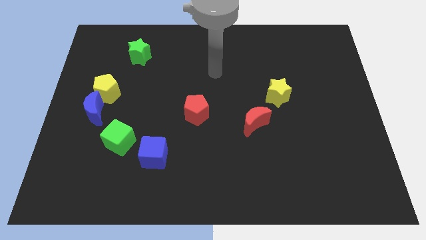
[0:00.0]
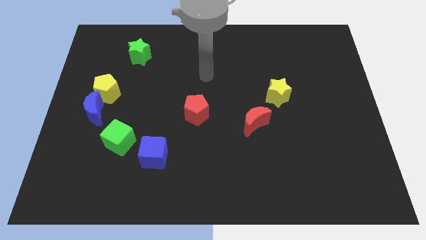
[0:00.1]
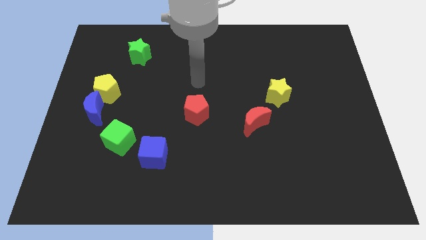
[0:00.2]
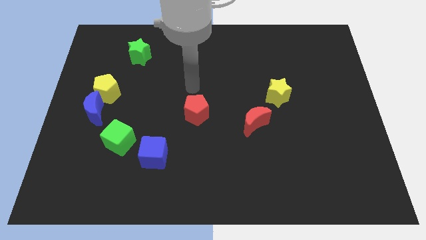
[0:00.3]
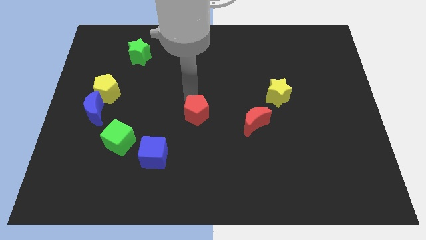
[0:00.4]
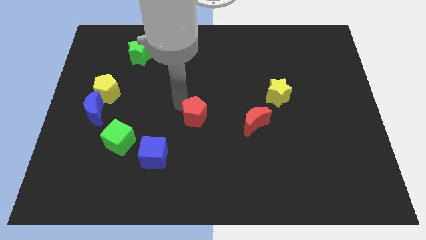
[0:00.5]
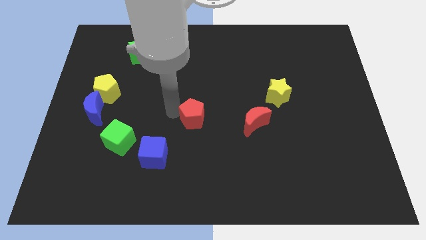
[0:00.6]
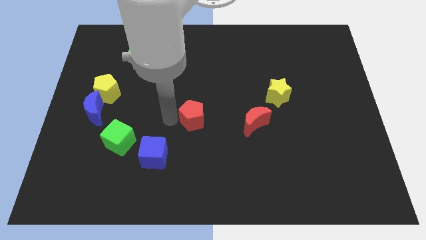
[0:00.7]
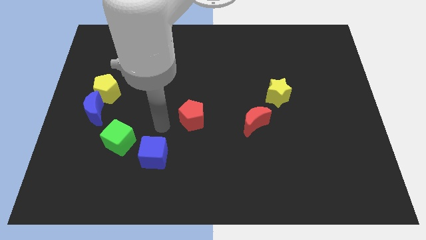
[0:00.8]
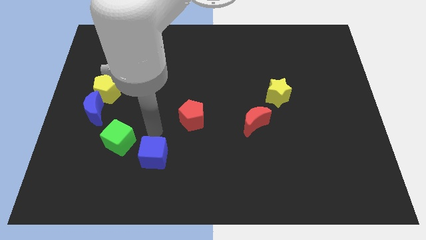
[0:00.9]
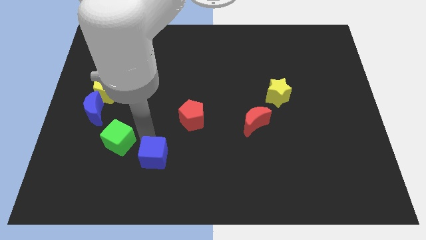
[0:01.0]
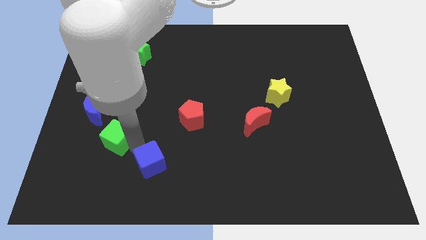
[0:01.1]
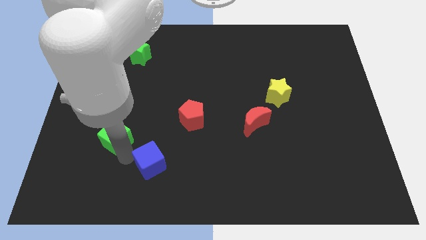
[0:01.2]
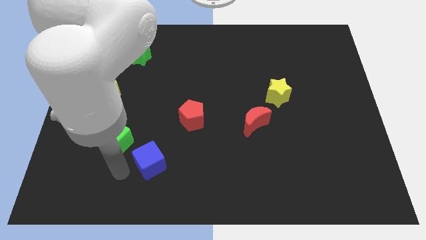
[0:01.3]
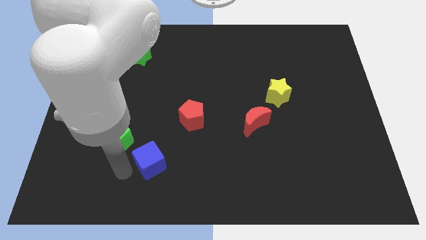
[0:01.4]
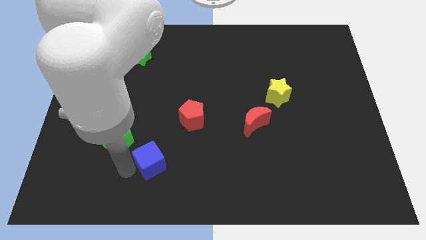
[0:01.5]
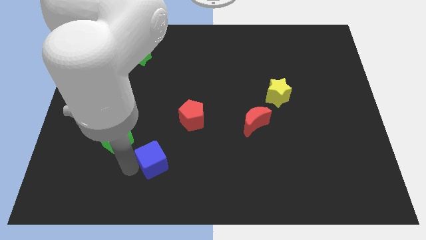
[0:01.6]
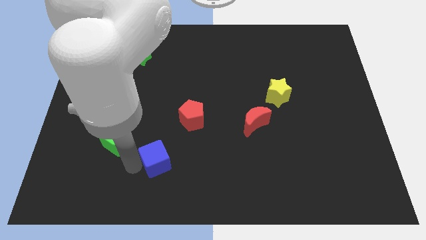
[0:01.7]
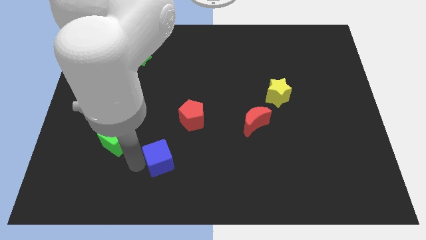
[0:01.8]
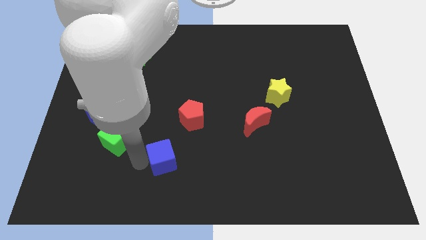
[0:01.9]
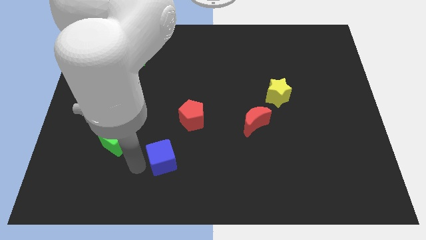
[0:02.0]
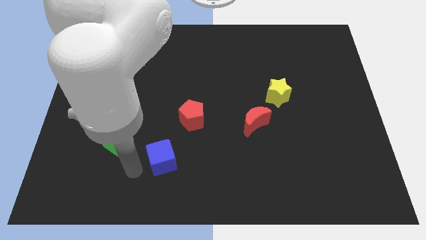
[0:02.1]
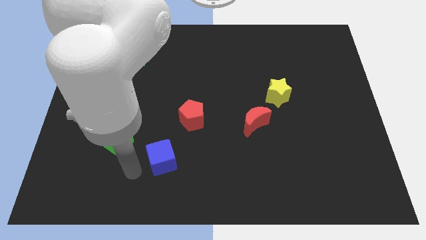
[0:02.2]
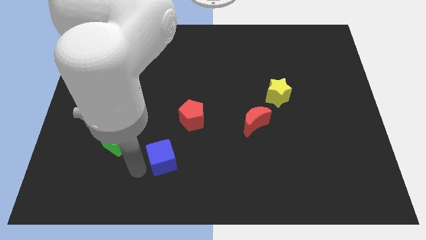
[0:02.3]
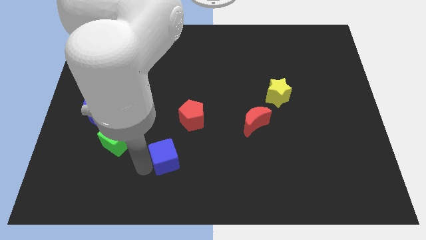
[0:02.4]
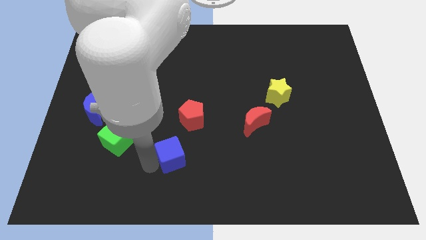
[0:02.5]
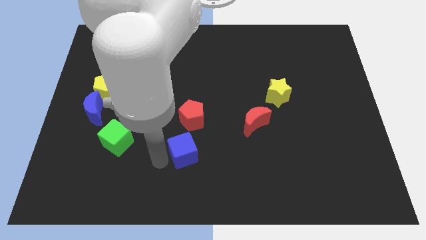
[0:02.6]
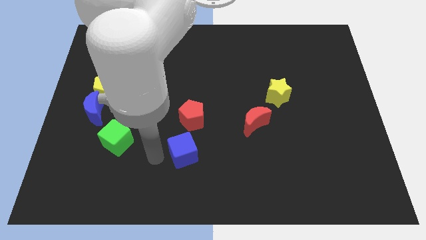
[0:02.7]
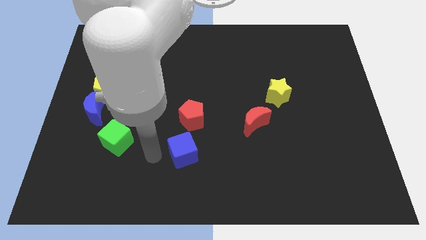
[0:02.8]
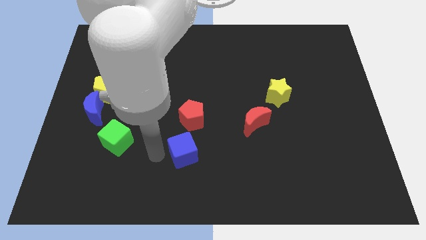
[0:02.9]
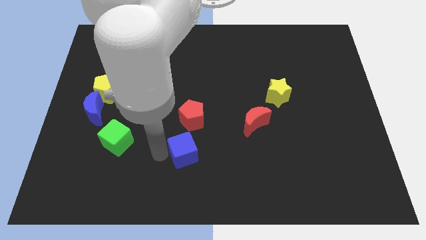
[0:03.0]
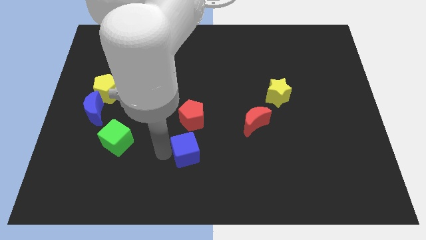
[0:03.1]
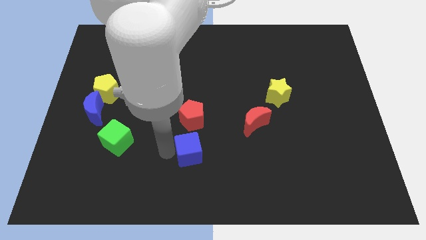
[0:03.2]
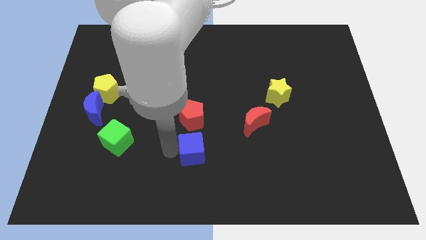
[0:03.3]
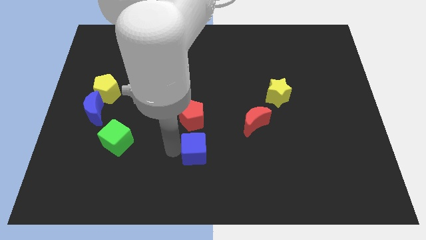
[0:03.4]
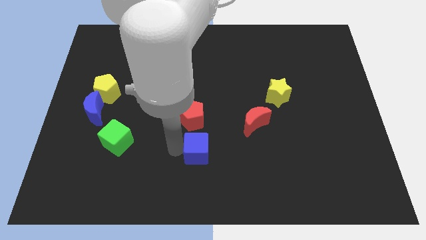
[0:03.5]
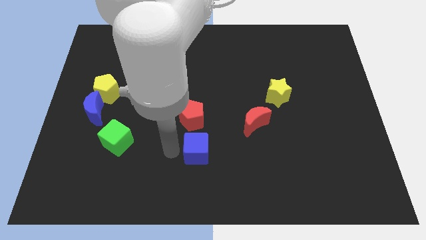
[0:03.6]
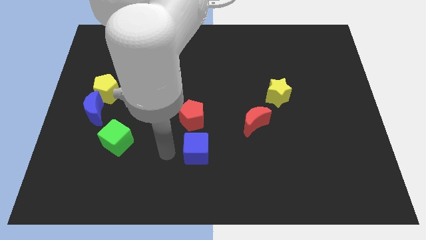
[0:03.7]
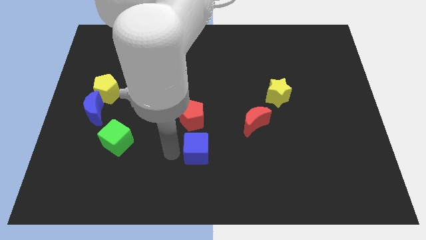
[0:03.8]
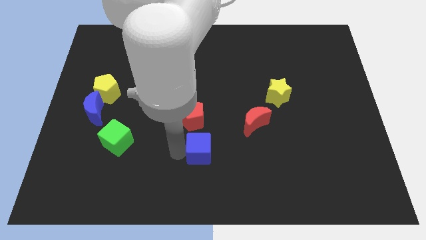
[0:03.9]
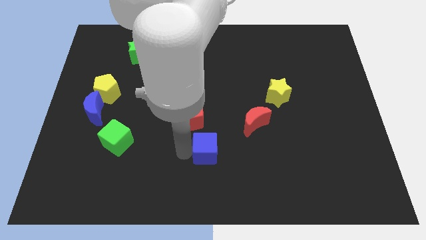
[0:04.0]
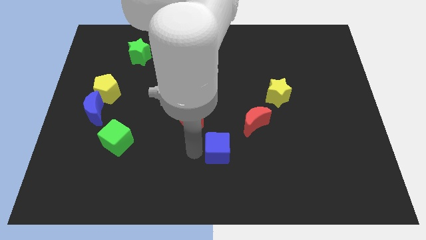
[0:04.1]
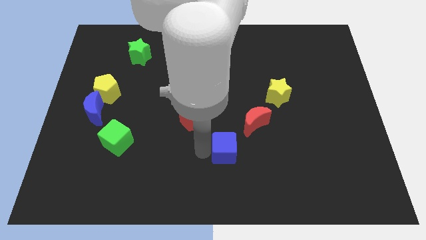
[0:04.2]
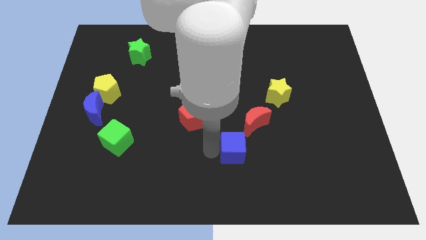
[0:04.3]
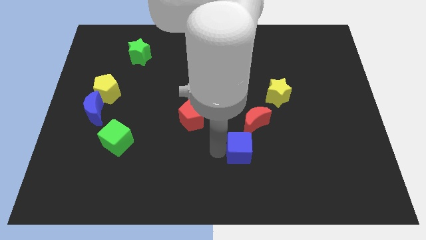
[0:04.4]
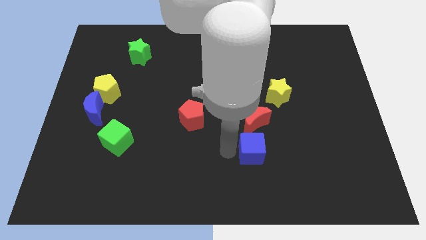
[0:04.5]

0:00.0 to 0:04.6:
move the blue cube right

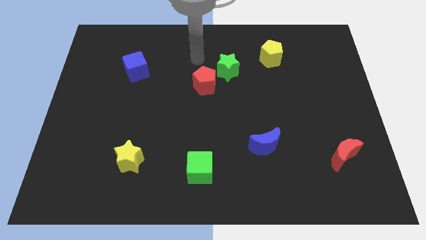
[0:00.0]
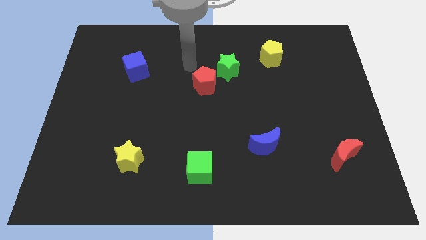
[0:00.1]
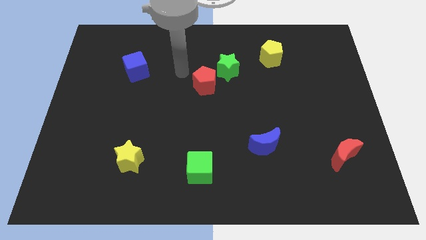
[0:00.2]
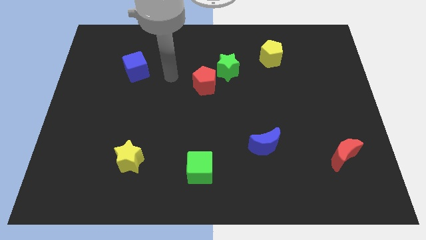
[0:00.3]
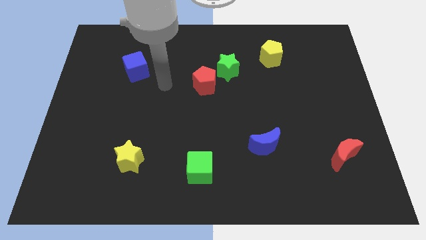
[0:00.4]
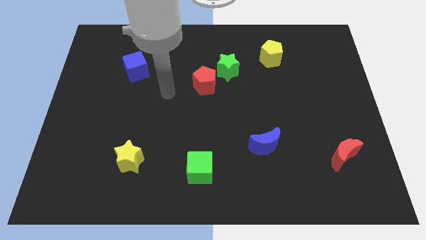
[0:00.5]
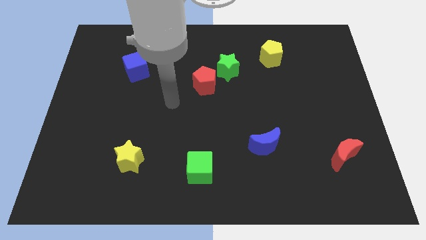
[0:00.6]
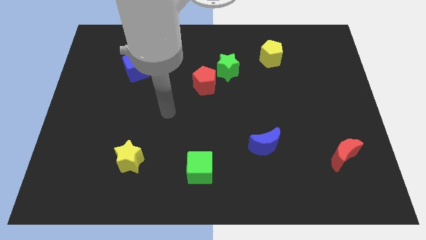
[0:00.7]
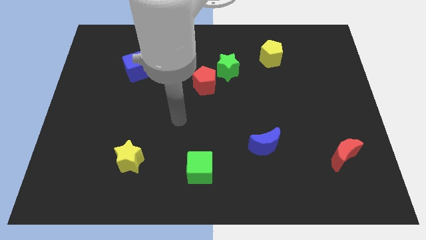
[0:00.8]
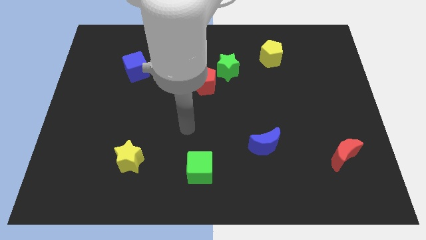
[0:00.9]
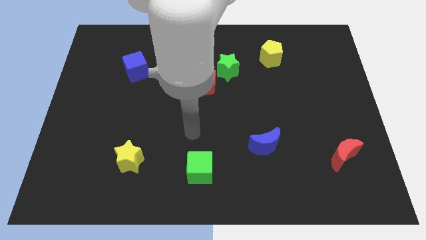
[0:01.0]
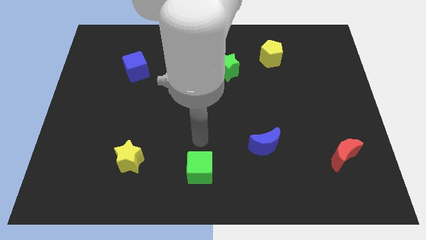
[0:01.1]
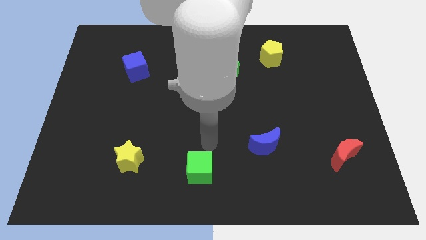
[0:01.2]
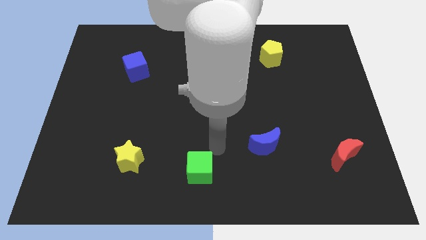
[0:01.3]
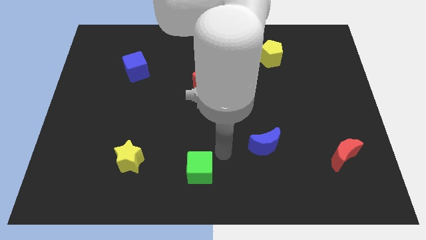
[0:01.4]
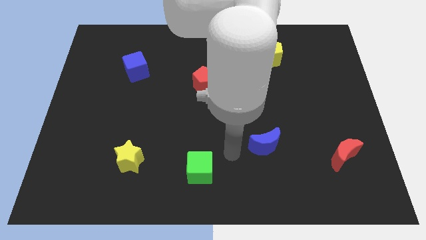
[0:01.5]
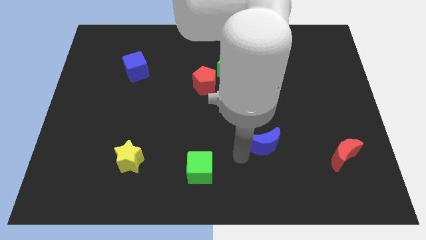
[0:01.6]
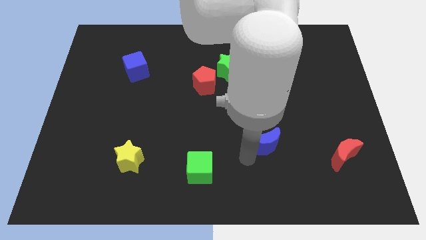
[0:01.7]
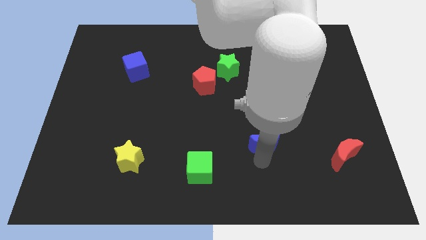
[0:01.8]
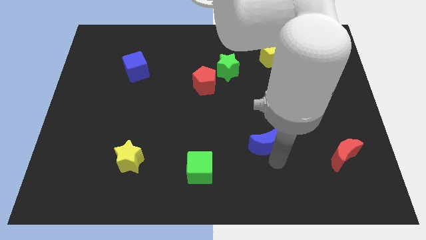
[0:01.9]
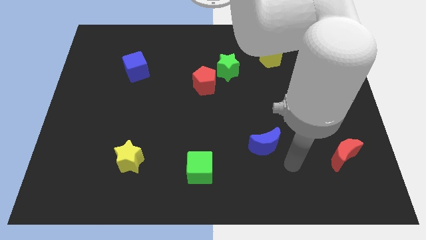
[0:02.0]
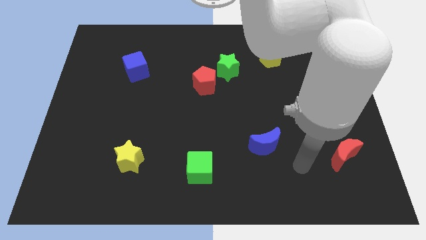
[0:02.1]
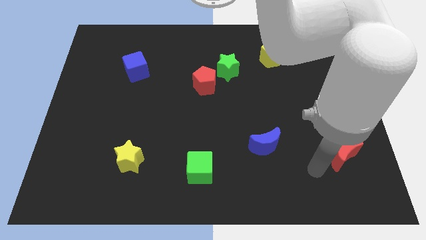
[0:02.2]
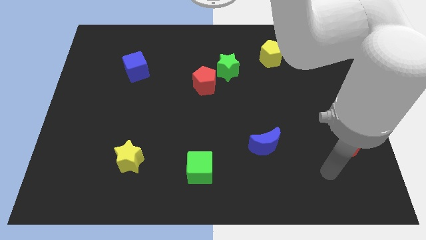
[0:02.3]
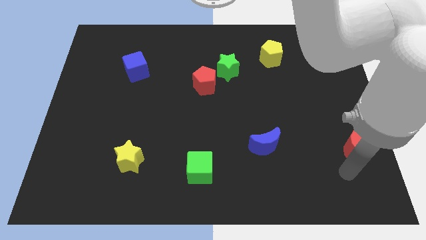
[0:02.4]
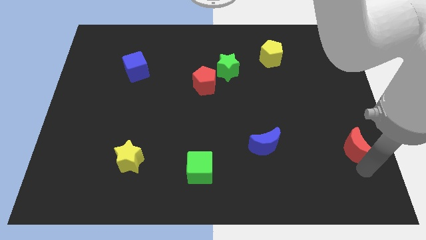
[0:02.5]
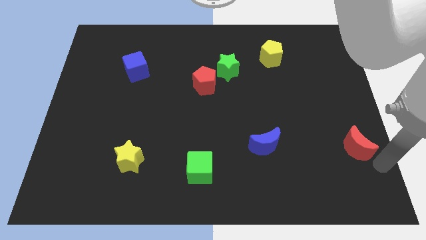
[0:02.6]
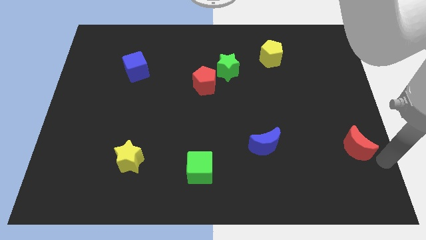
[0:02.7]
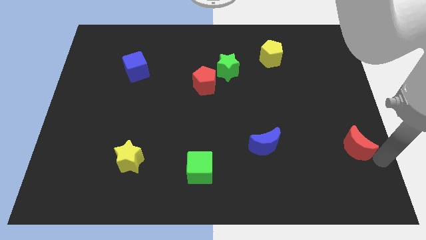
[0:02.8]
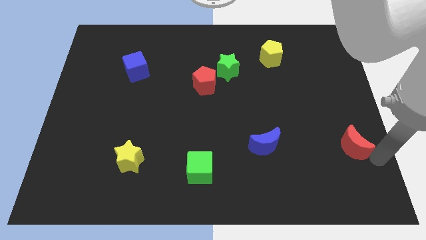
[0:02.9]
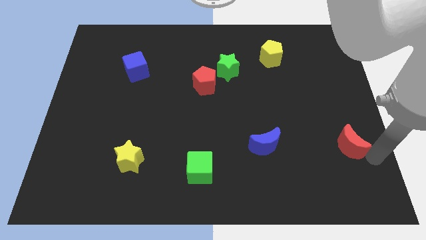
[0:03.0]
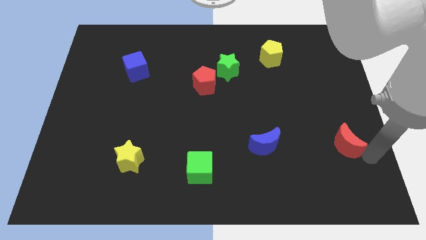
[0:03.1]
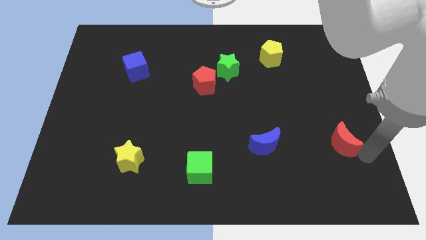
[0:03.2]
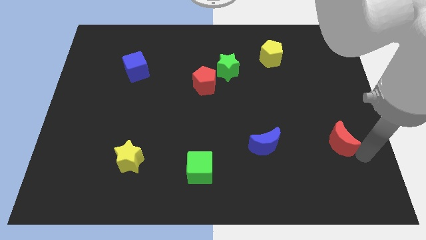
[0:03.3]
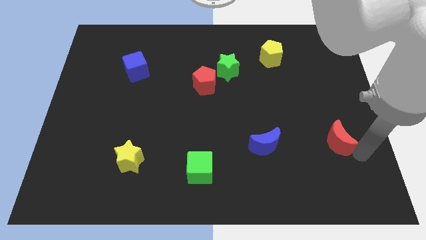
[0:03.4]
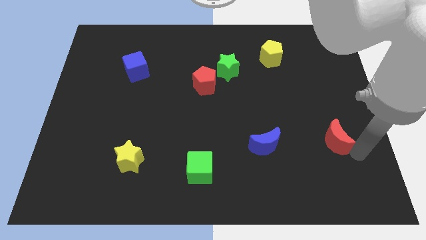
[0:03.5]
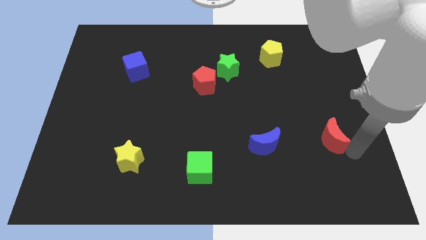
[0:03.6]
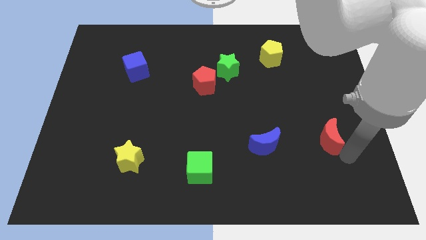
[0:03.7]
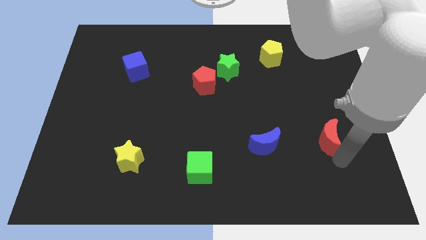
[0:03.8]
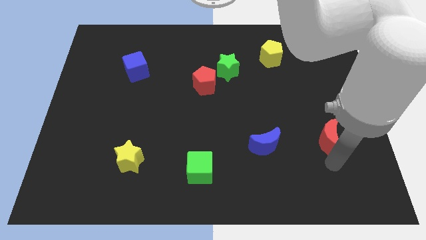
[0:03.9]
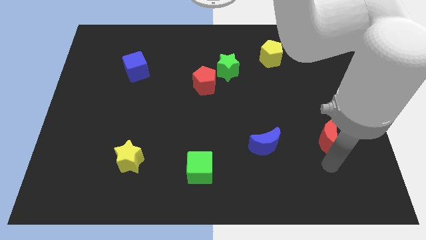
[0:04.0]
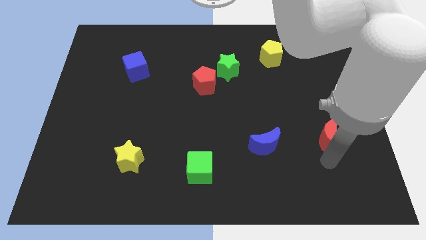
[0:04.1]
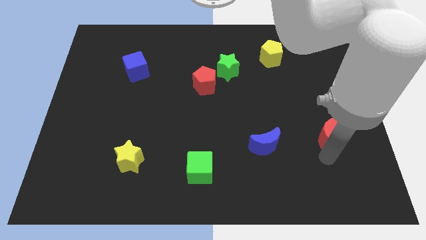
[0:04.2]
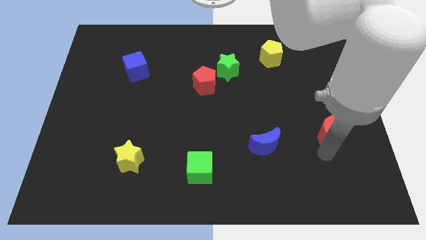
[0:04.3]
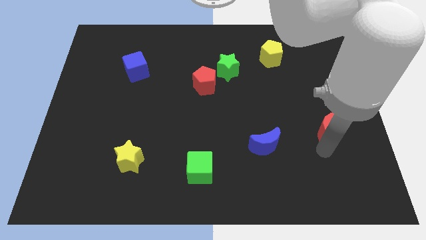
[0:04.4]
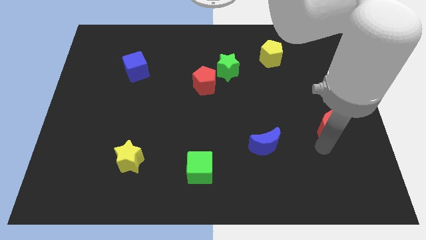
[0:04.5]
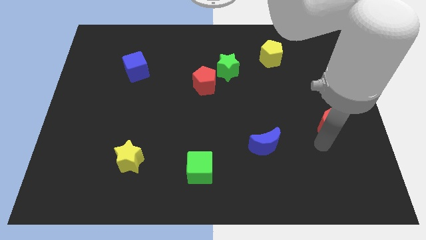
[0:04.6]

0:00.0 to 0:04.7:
push the red moon upwards a bit
